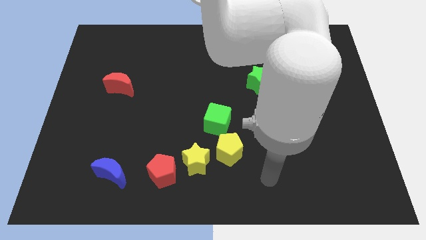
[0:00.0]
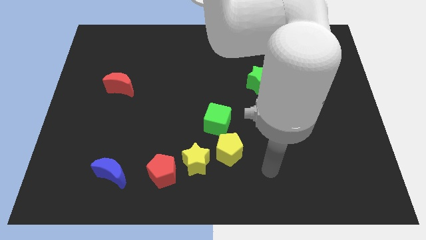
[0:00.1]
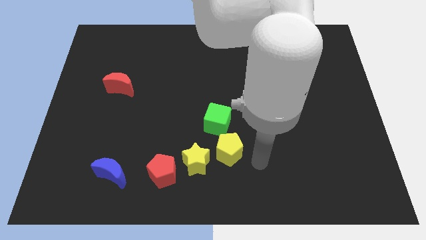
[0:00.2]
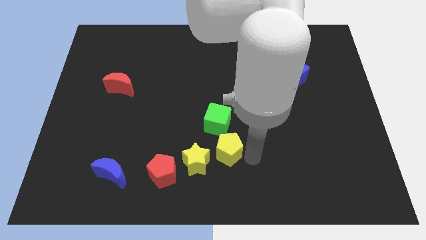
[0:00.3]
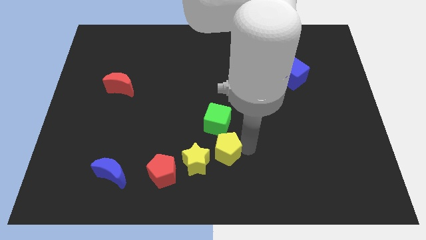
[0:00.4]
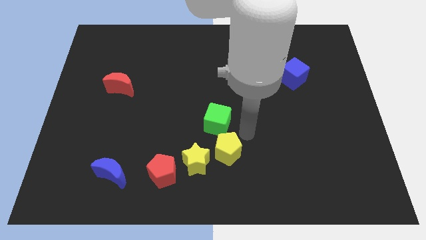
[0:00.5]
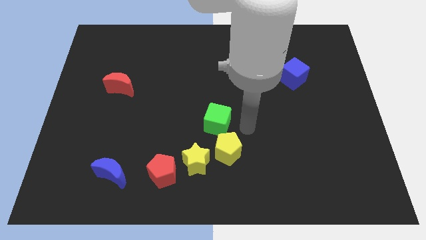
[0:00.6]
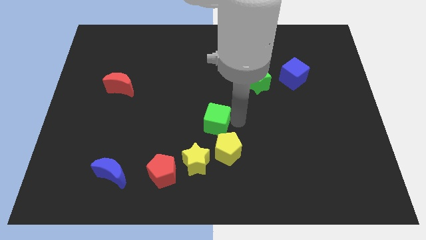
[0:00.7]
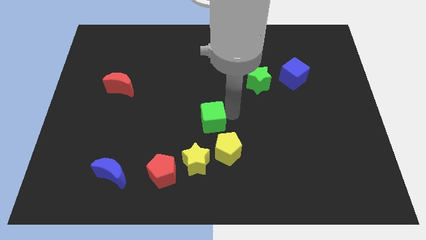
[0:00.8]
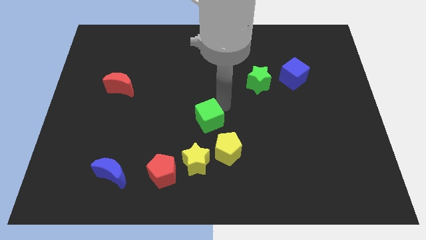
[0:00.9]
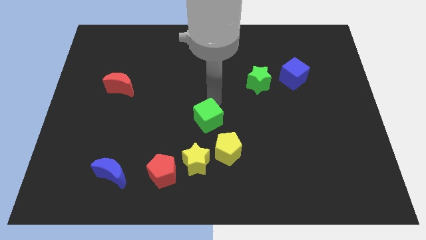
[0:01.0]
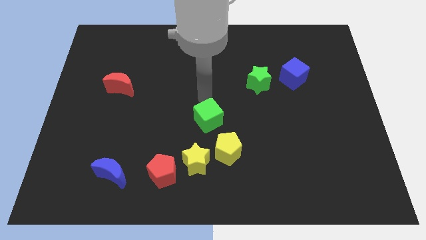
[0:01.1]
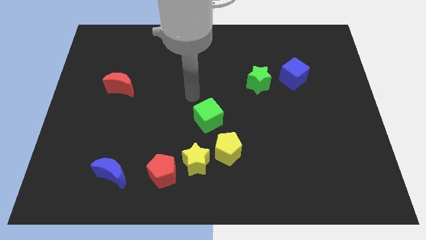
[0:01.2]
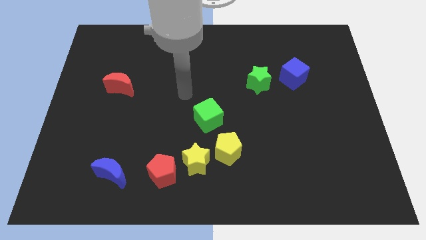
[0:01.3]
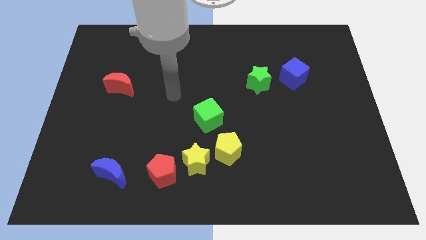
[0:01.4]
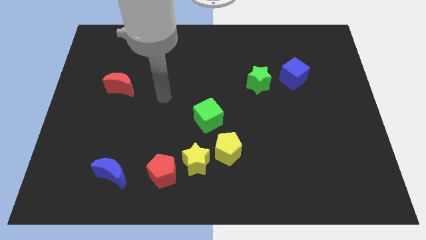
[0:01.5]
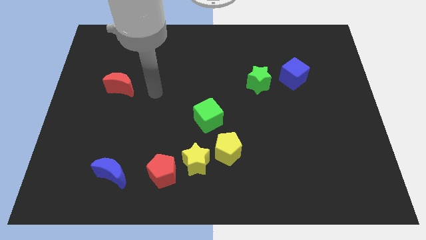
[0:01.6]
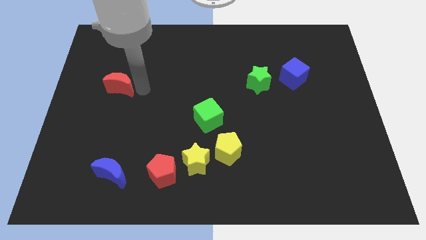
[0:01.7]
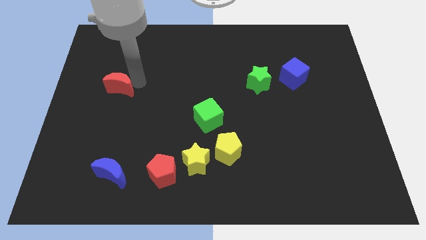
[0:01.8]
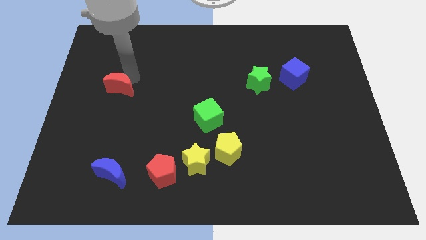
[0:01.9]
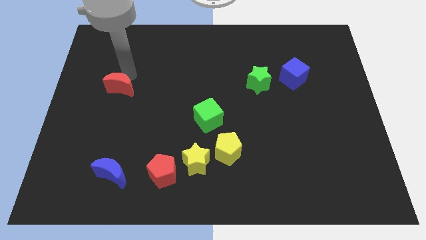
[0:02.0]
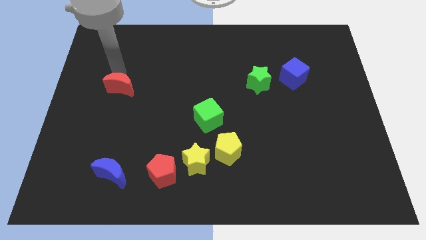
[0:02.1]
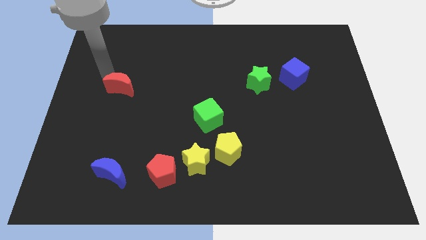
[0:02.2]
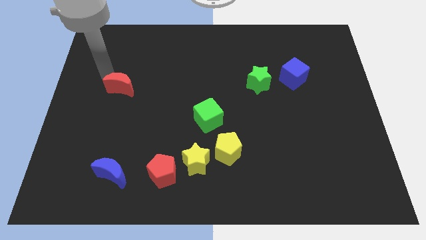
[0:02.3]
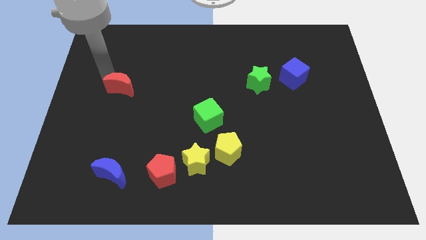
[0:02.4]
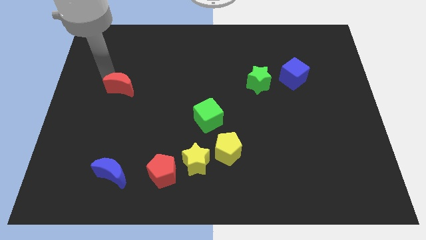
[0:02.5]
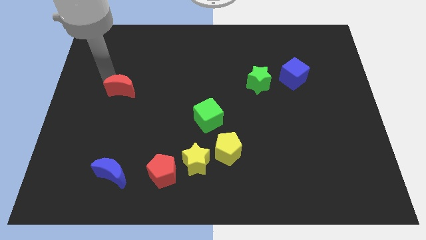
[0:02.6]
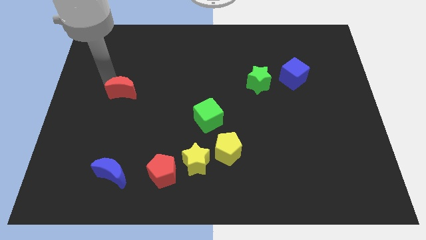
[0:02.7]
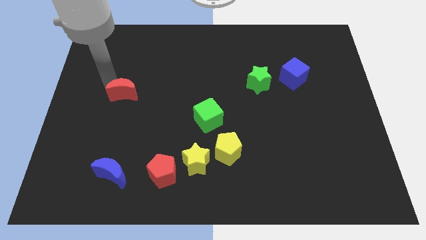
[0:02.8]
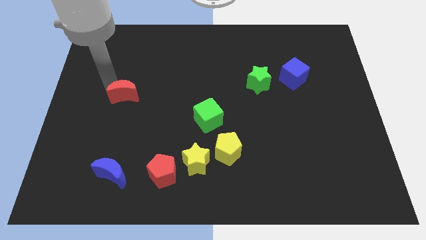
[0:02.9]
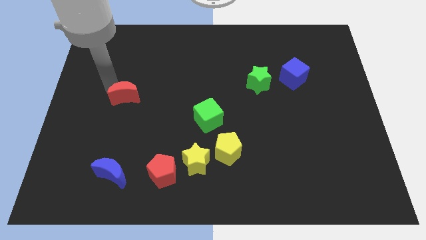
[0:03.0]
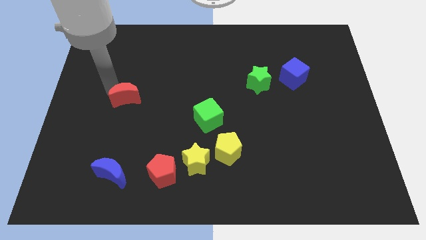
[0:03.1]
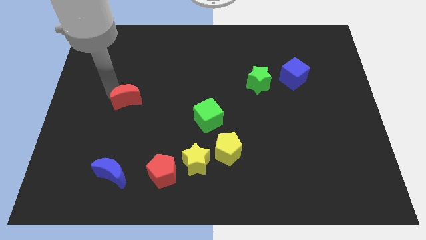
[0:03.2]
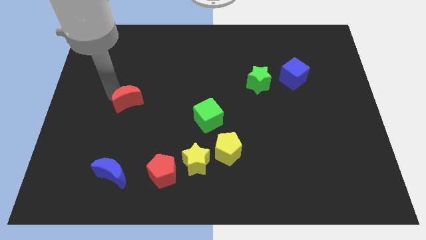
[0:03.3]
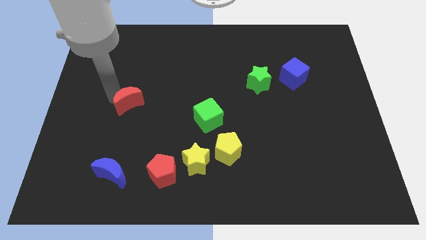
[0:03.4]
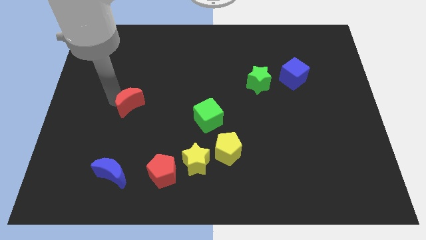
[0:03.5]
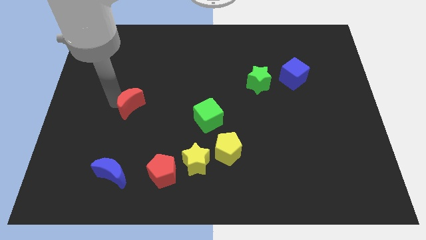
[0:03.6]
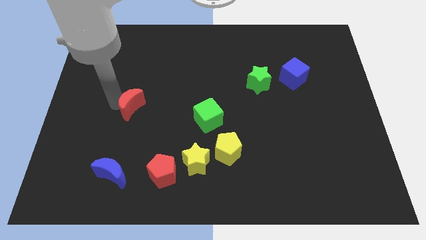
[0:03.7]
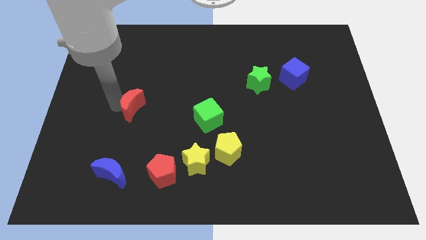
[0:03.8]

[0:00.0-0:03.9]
slide the red moon a bit down and then right

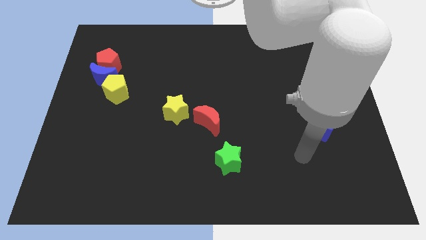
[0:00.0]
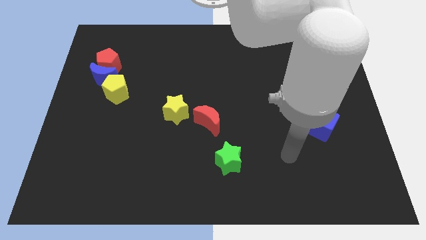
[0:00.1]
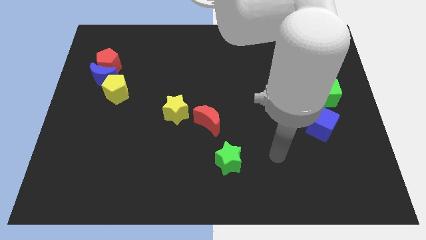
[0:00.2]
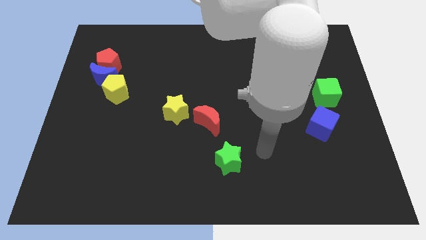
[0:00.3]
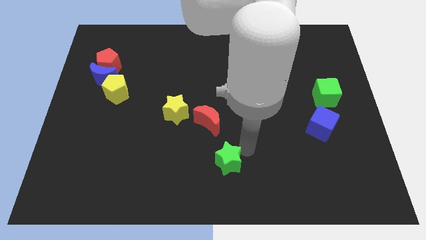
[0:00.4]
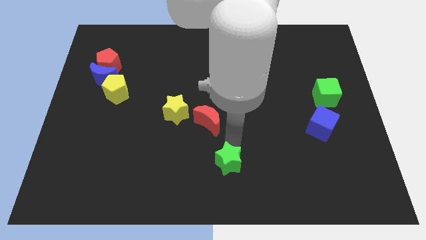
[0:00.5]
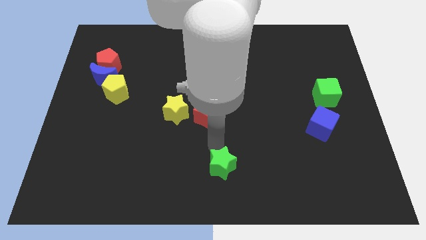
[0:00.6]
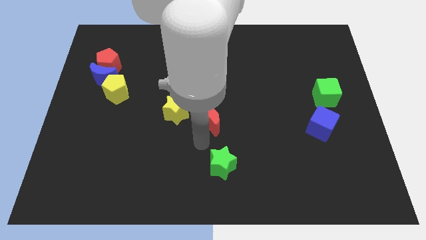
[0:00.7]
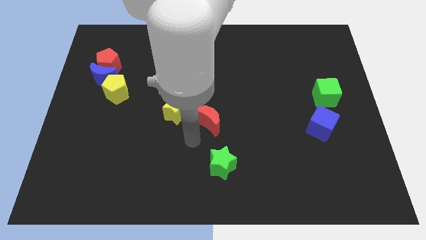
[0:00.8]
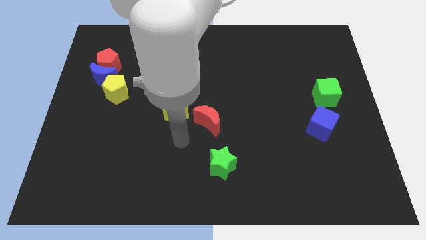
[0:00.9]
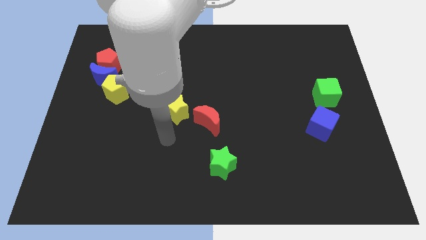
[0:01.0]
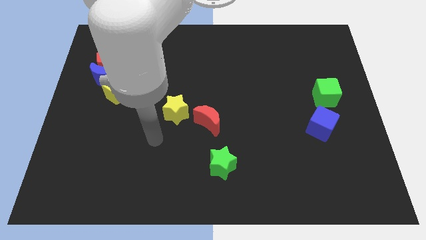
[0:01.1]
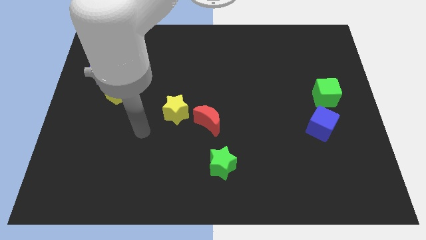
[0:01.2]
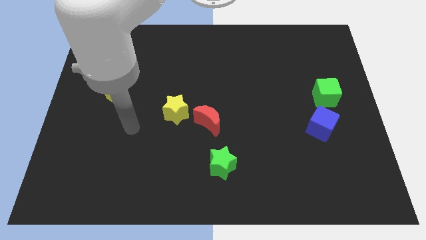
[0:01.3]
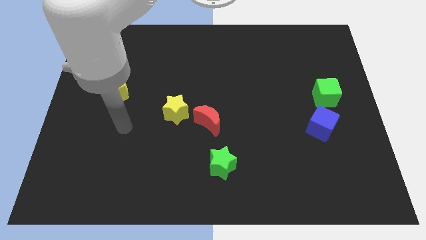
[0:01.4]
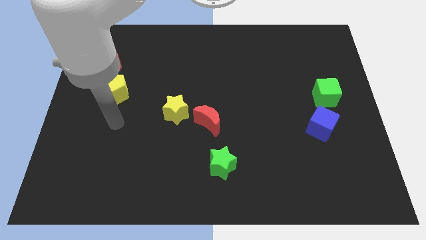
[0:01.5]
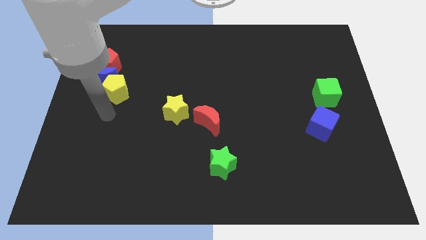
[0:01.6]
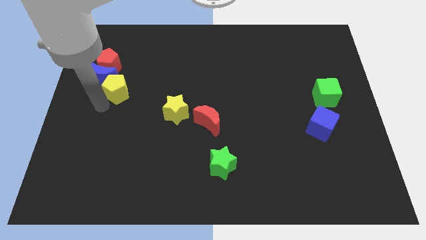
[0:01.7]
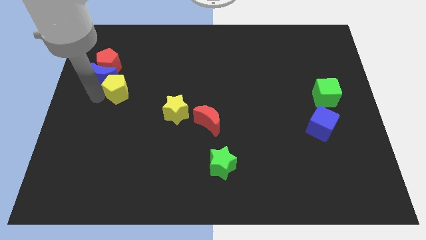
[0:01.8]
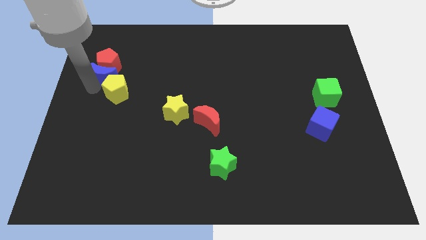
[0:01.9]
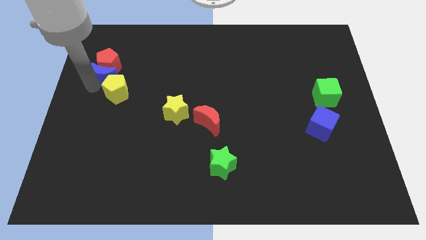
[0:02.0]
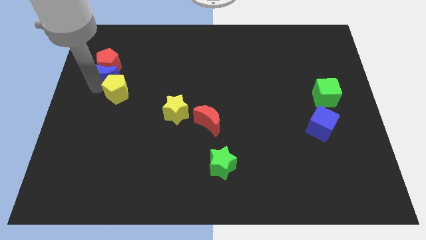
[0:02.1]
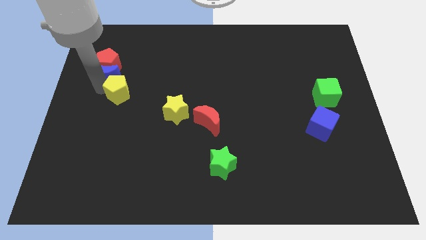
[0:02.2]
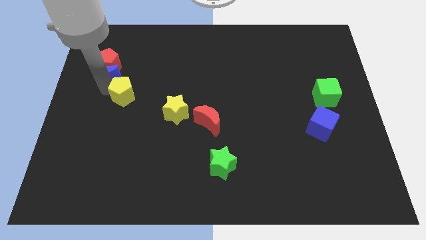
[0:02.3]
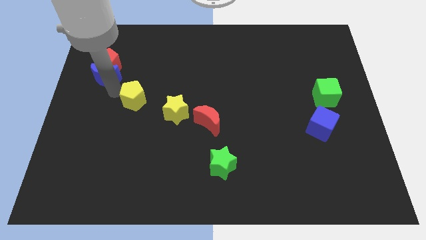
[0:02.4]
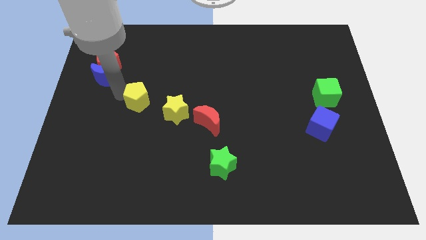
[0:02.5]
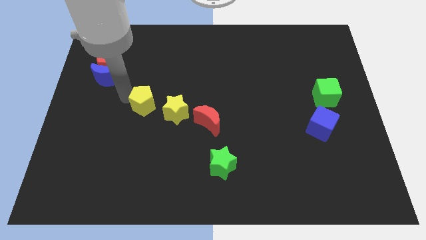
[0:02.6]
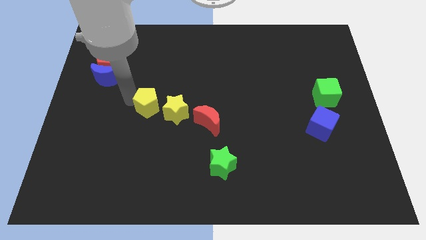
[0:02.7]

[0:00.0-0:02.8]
push the yellow pentagon right slightly

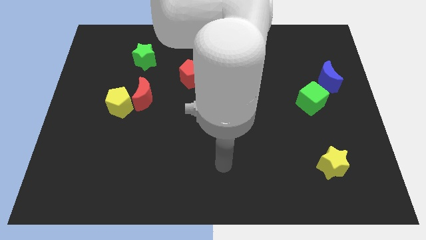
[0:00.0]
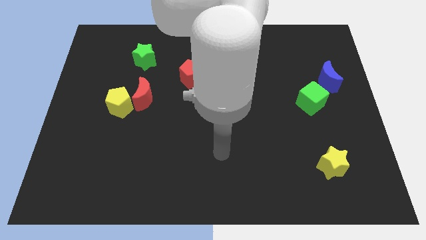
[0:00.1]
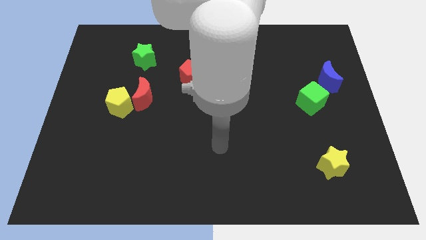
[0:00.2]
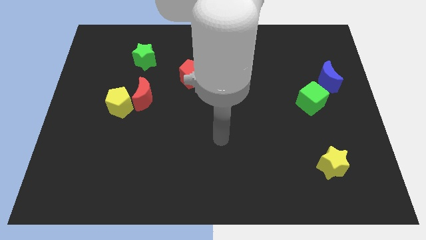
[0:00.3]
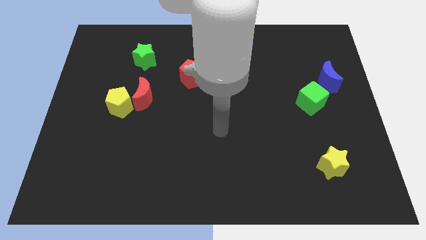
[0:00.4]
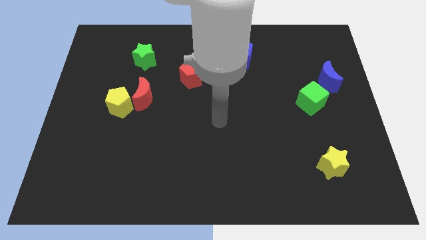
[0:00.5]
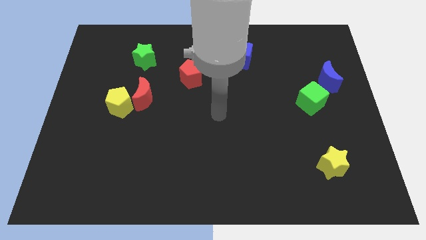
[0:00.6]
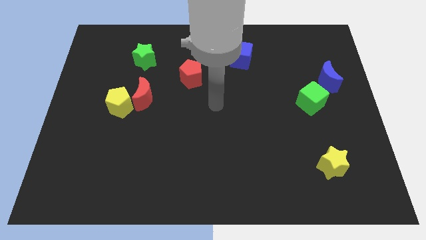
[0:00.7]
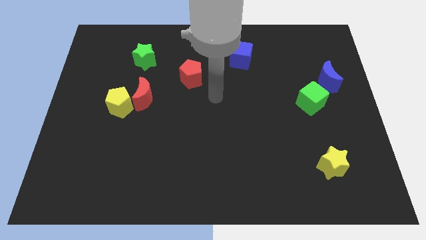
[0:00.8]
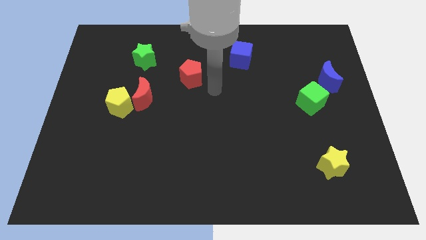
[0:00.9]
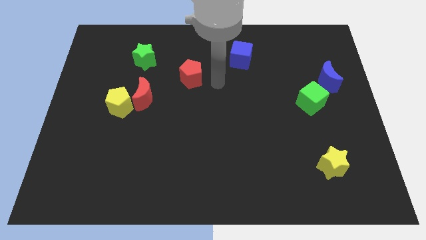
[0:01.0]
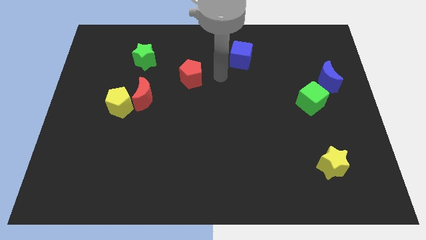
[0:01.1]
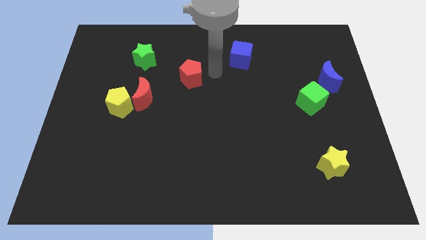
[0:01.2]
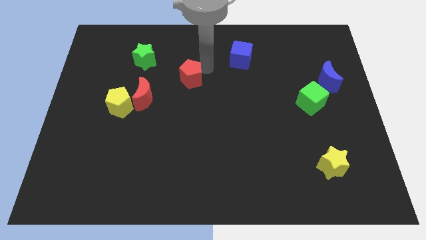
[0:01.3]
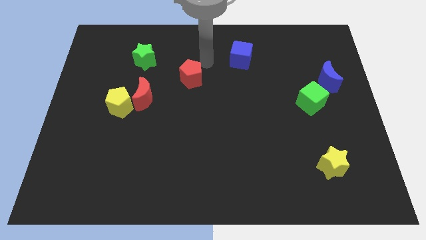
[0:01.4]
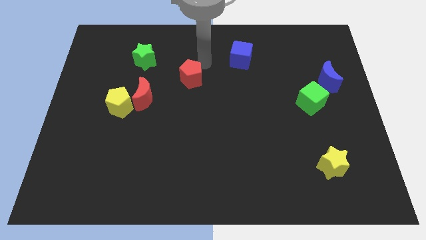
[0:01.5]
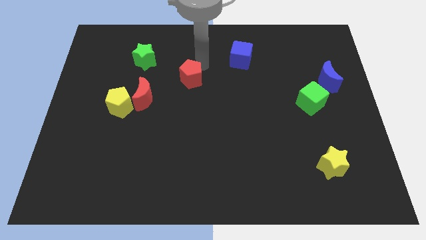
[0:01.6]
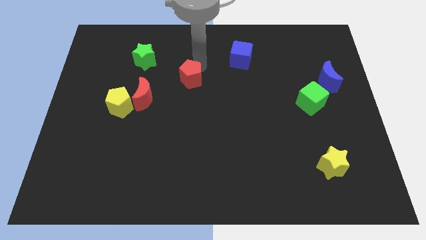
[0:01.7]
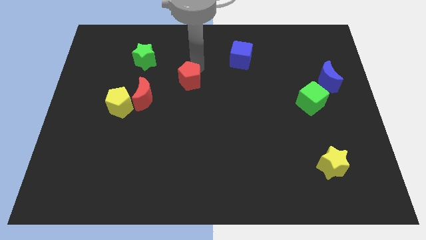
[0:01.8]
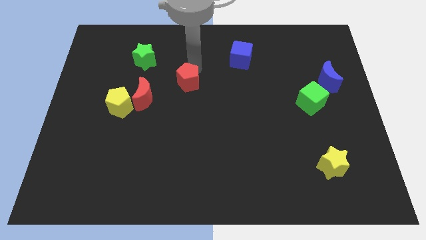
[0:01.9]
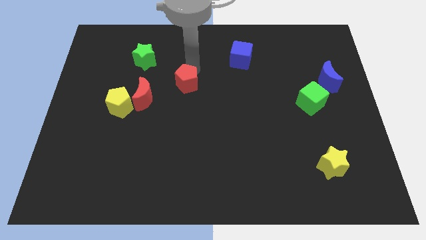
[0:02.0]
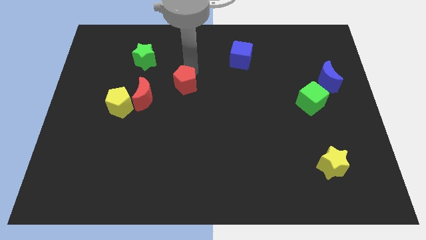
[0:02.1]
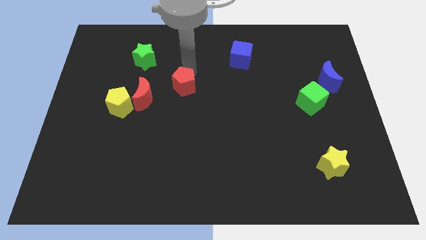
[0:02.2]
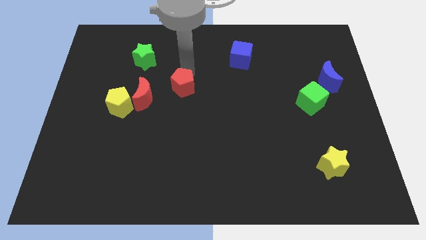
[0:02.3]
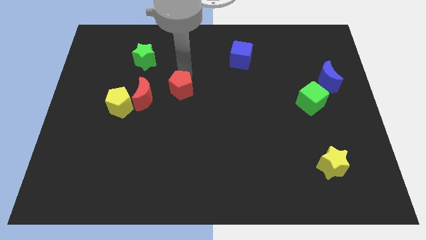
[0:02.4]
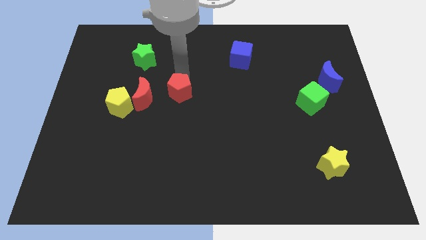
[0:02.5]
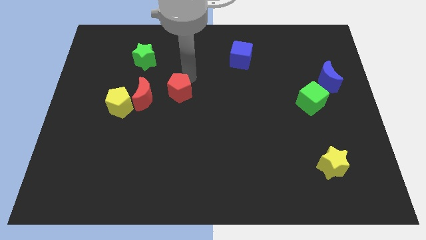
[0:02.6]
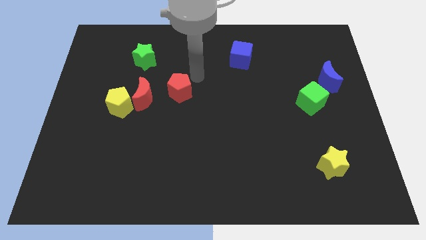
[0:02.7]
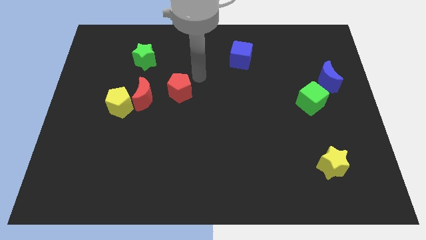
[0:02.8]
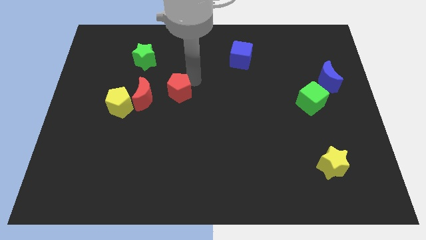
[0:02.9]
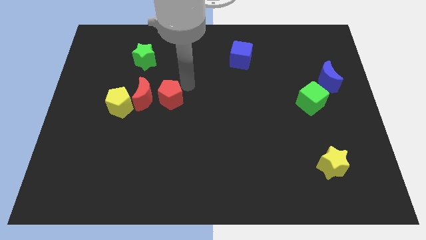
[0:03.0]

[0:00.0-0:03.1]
slightly slide the red pentagon downwards and left diagonally
